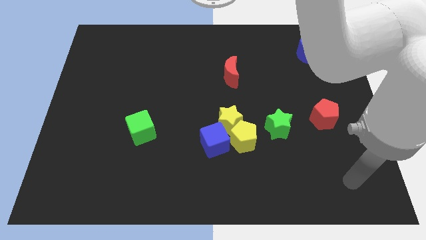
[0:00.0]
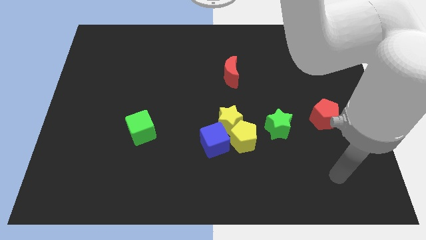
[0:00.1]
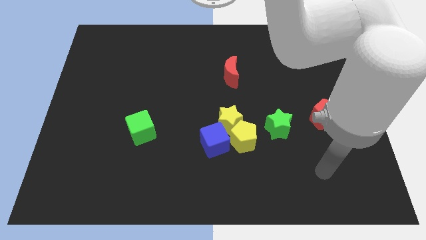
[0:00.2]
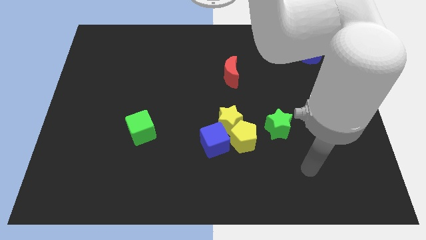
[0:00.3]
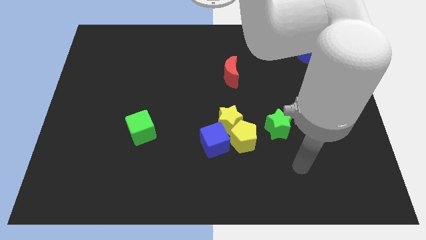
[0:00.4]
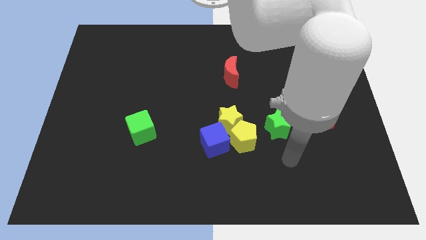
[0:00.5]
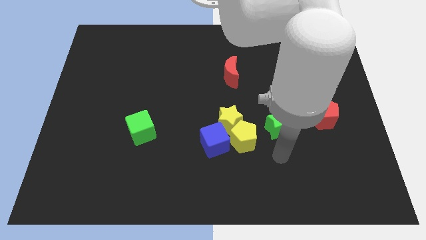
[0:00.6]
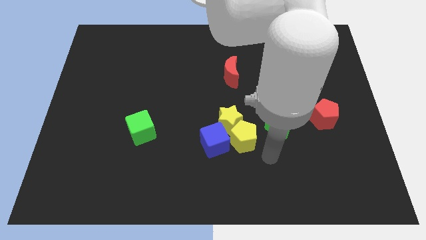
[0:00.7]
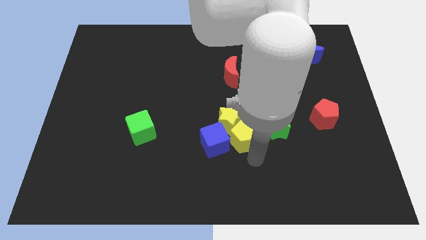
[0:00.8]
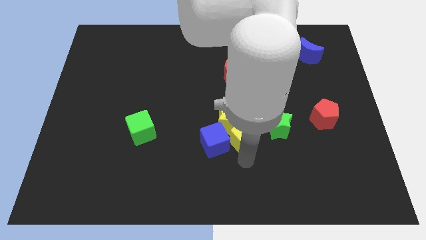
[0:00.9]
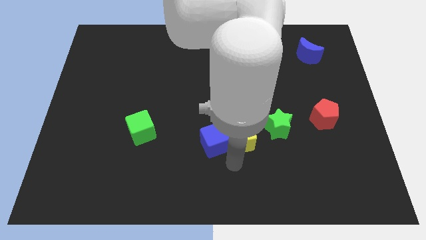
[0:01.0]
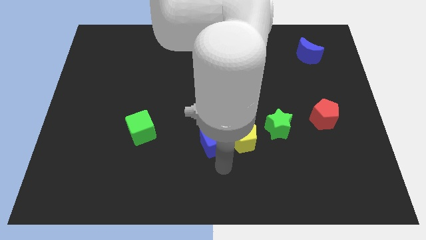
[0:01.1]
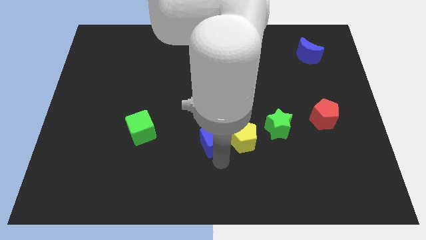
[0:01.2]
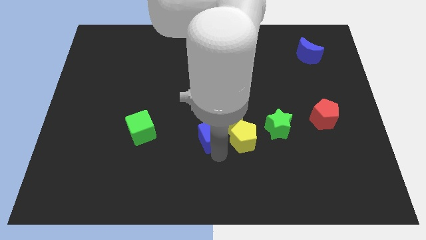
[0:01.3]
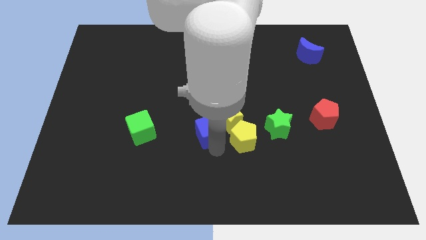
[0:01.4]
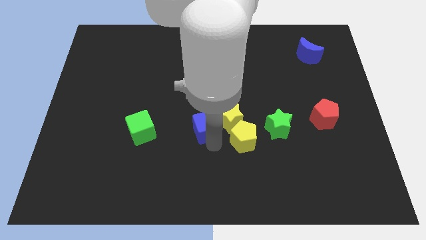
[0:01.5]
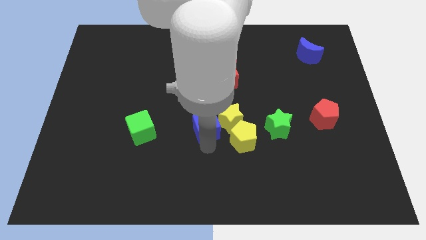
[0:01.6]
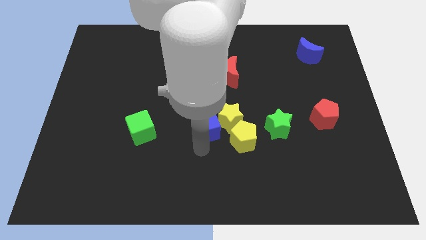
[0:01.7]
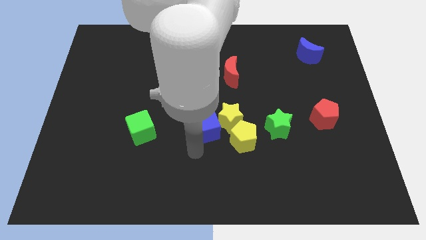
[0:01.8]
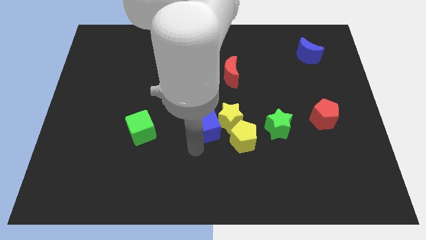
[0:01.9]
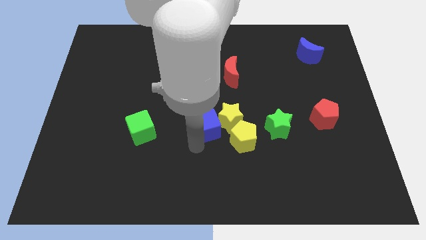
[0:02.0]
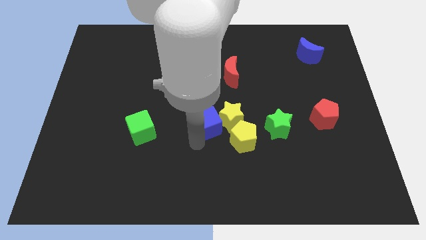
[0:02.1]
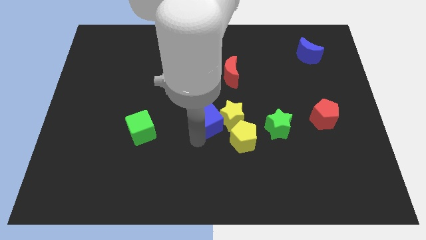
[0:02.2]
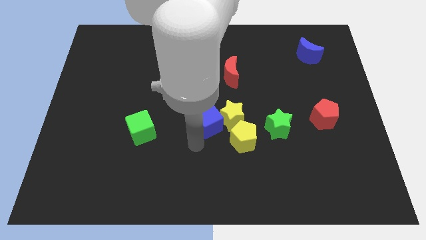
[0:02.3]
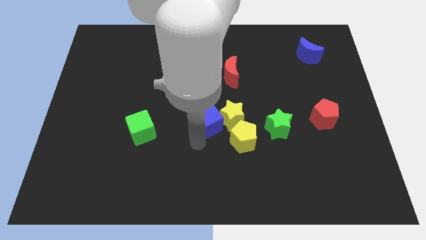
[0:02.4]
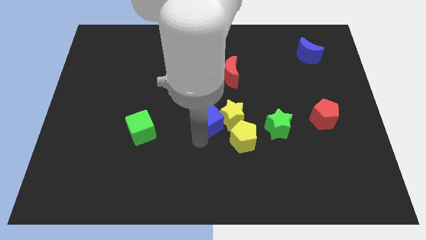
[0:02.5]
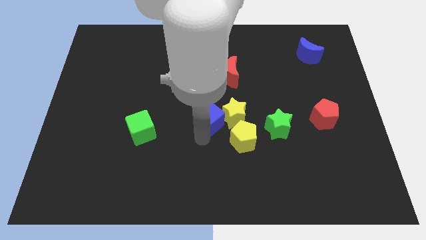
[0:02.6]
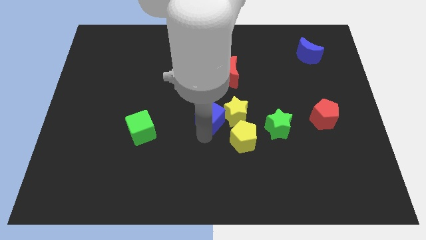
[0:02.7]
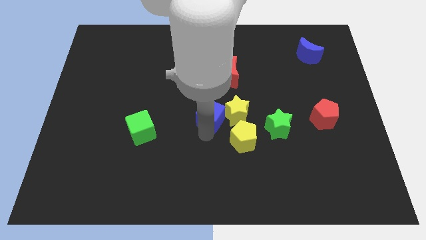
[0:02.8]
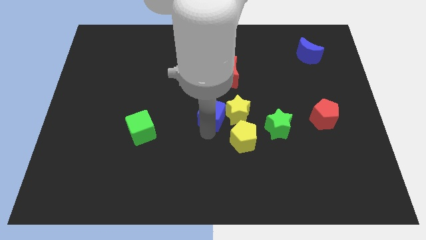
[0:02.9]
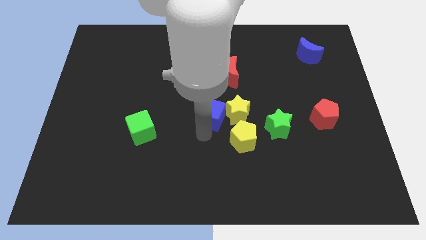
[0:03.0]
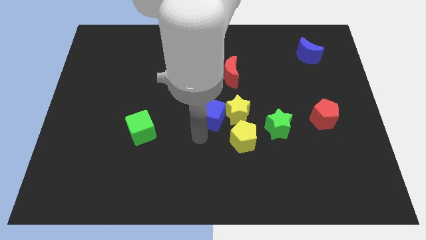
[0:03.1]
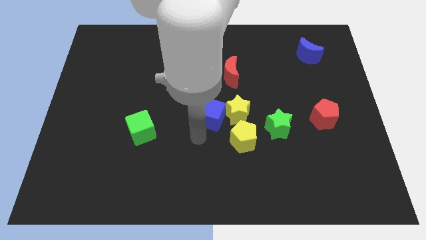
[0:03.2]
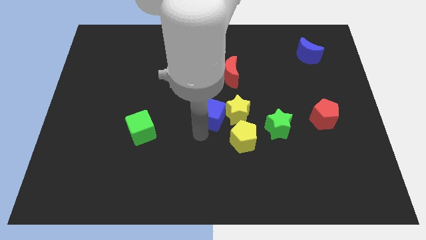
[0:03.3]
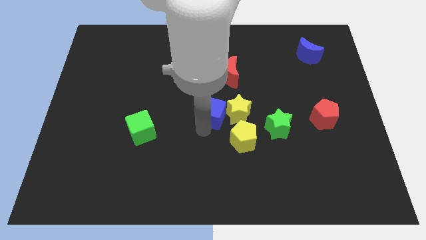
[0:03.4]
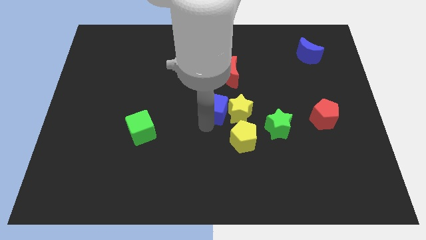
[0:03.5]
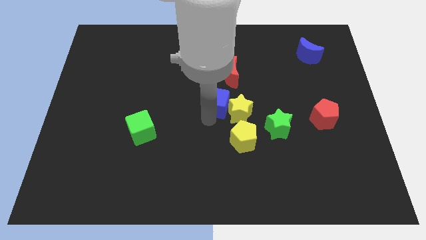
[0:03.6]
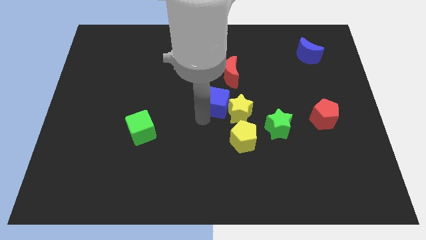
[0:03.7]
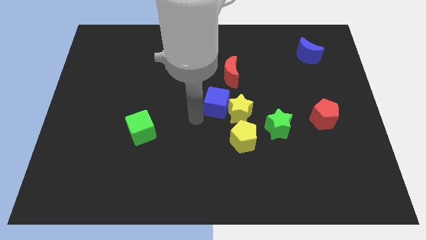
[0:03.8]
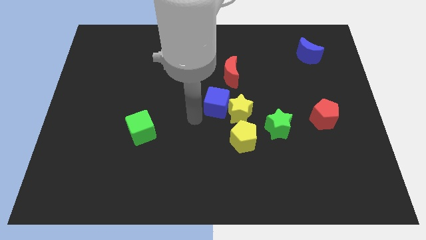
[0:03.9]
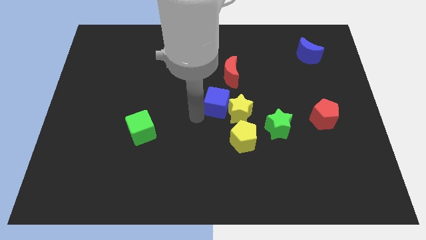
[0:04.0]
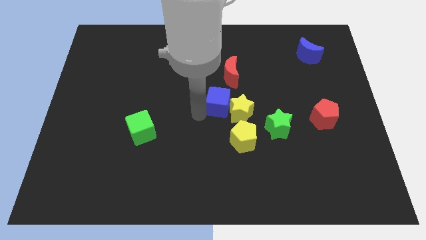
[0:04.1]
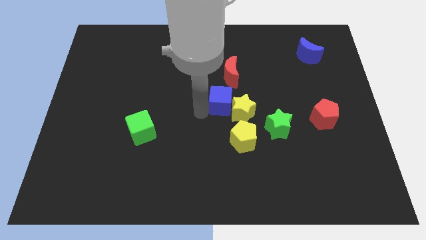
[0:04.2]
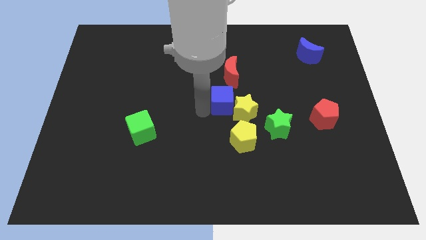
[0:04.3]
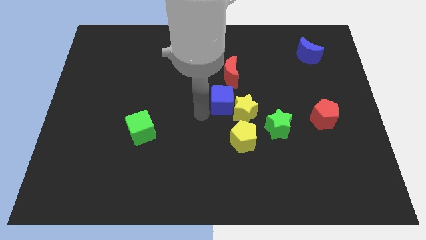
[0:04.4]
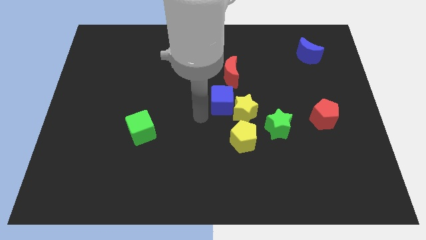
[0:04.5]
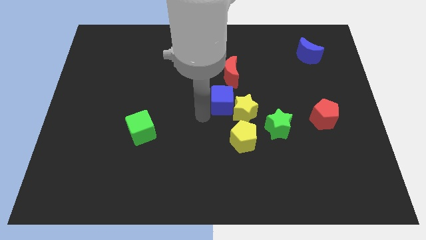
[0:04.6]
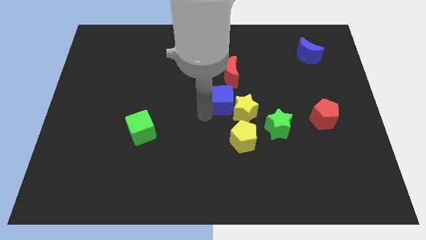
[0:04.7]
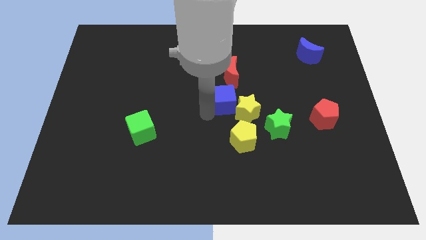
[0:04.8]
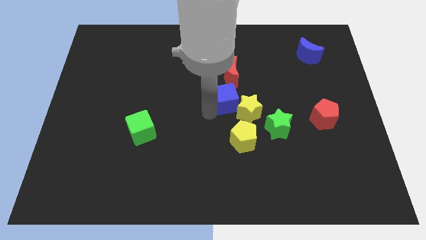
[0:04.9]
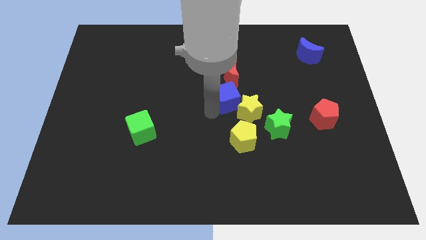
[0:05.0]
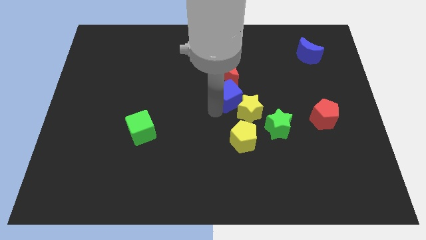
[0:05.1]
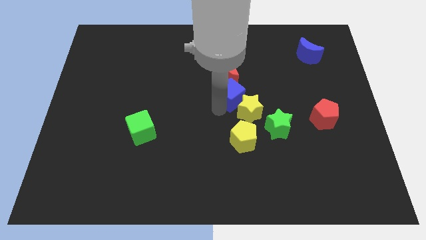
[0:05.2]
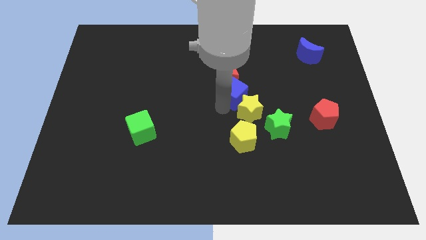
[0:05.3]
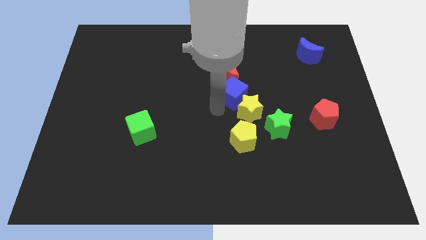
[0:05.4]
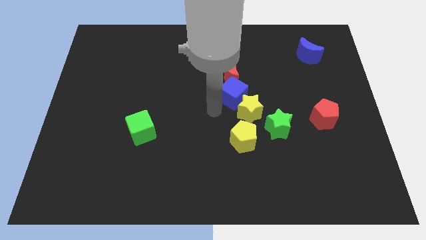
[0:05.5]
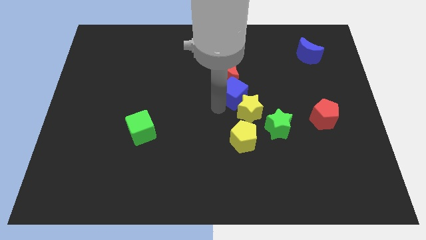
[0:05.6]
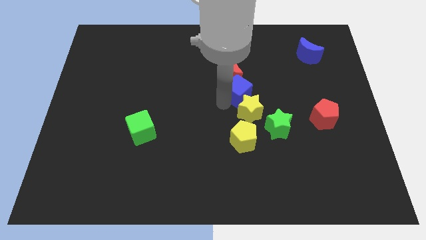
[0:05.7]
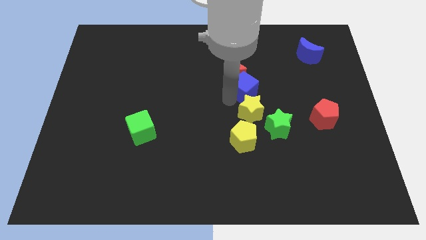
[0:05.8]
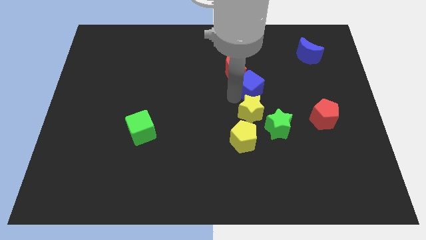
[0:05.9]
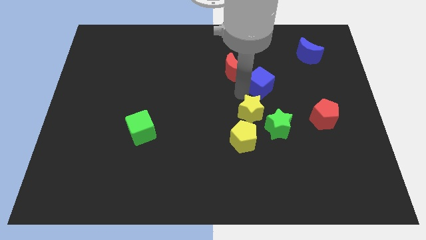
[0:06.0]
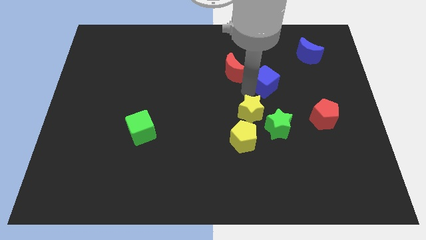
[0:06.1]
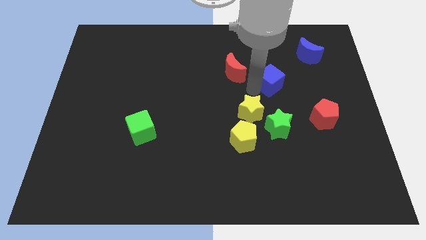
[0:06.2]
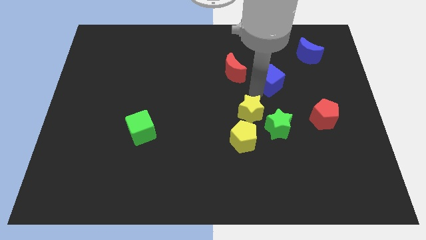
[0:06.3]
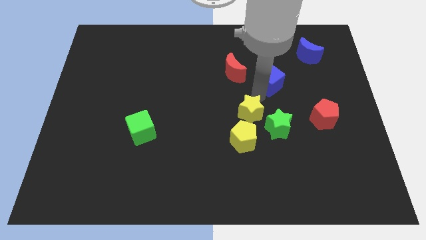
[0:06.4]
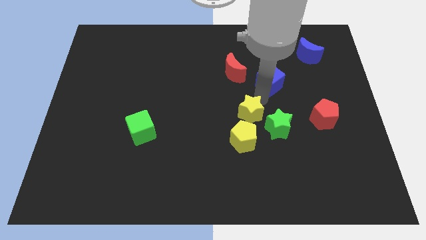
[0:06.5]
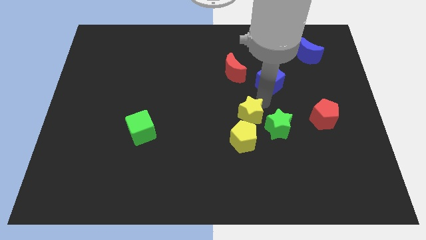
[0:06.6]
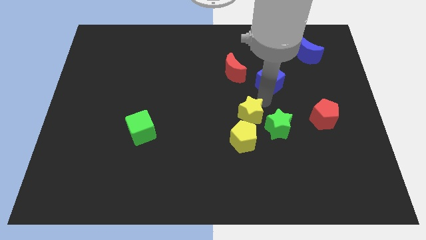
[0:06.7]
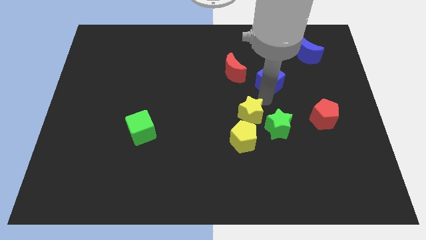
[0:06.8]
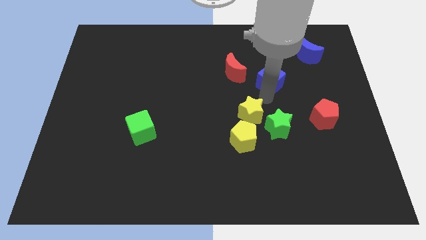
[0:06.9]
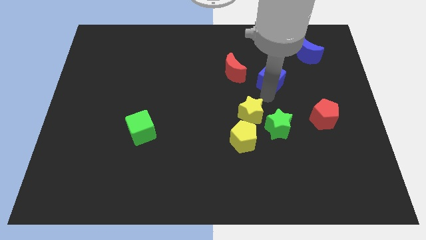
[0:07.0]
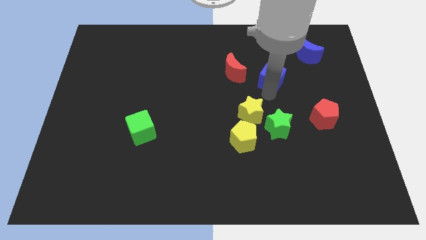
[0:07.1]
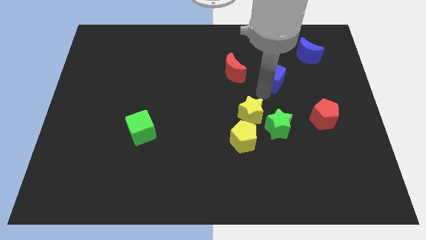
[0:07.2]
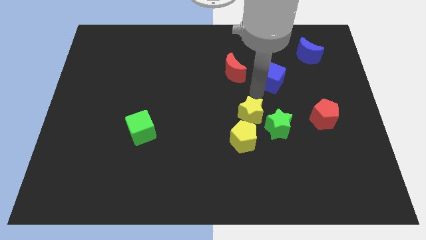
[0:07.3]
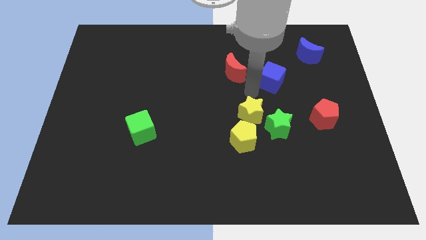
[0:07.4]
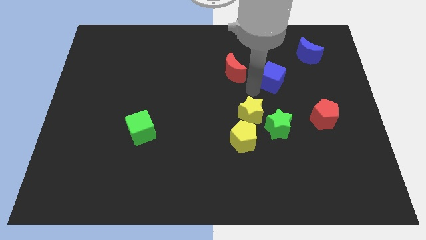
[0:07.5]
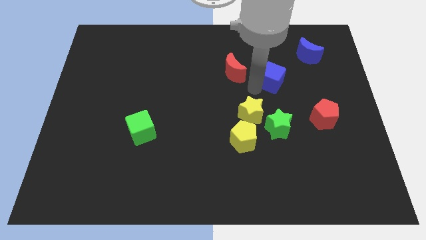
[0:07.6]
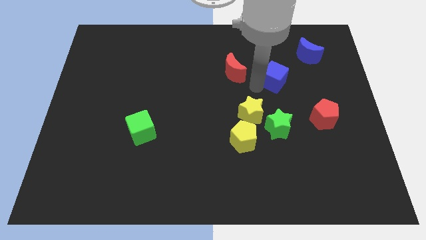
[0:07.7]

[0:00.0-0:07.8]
put the blue cube diagonally down and to the left of the blue moon

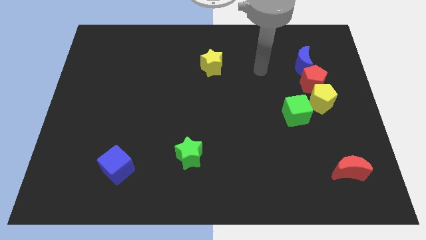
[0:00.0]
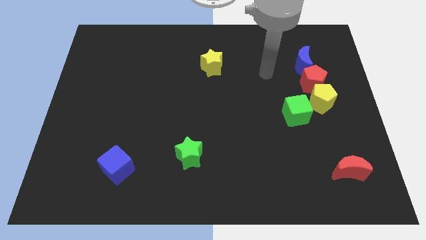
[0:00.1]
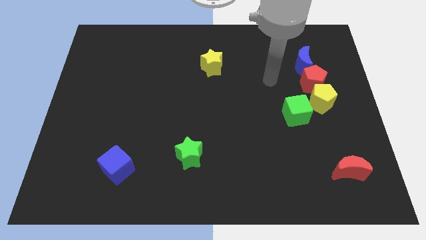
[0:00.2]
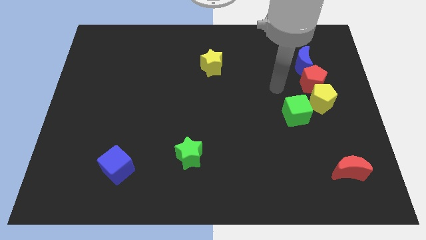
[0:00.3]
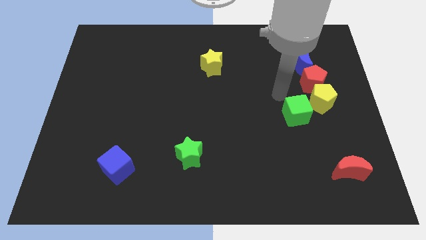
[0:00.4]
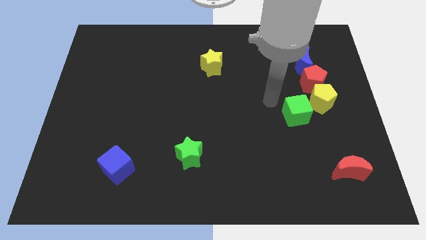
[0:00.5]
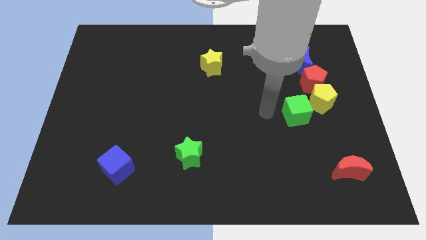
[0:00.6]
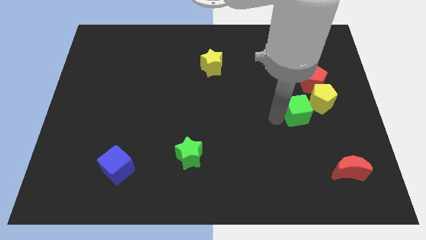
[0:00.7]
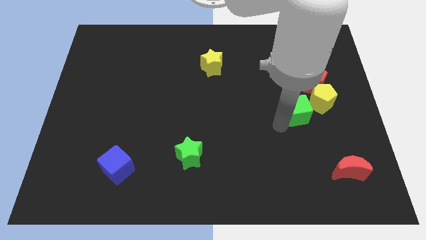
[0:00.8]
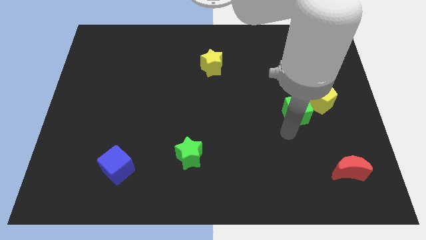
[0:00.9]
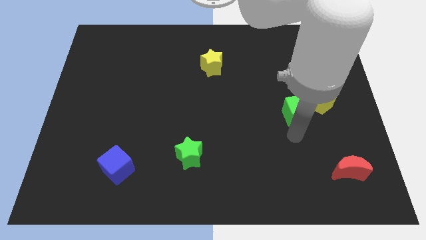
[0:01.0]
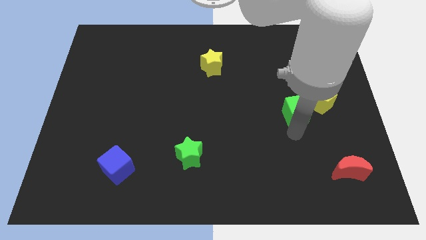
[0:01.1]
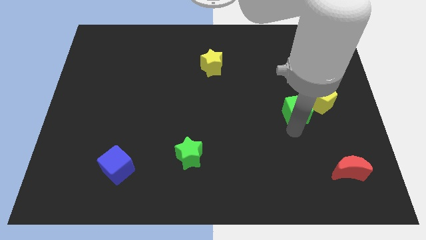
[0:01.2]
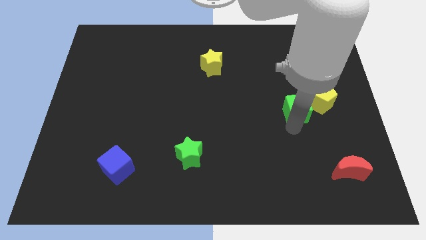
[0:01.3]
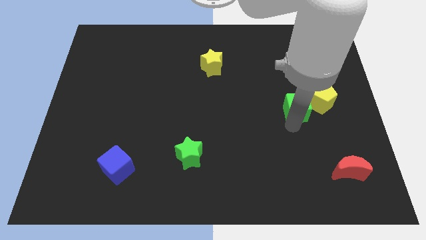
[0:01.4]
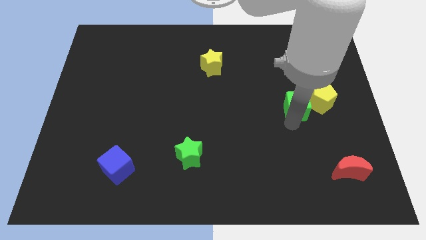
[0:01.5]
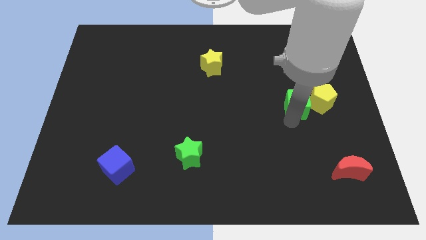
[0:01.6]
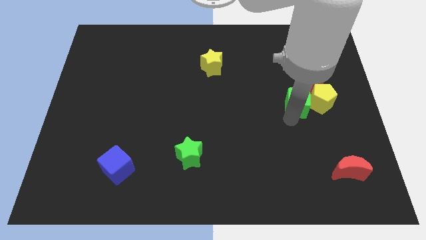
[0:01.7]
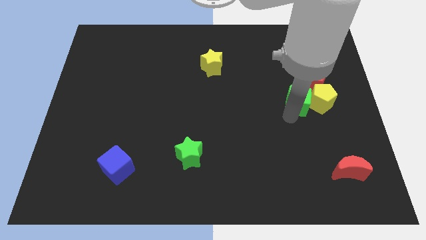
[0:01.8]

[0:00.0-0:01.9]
push the green cube diagonally up and to the left of the yellow pentagon
